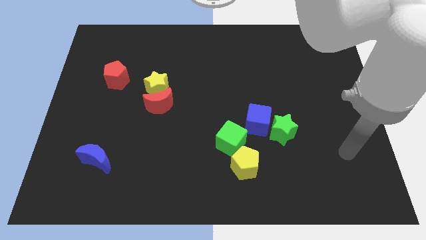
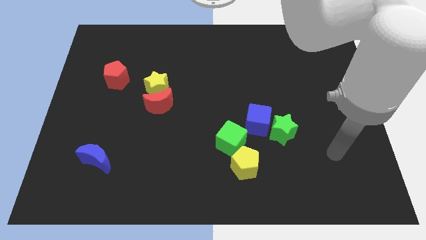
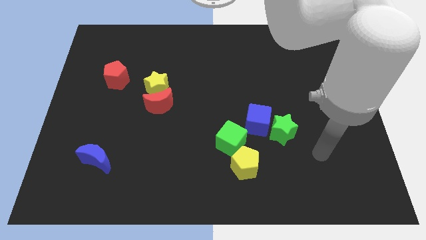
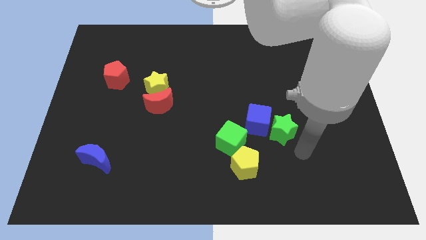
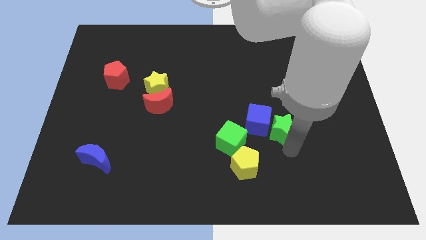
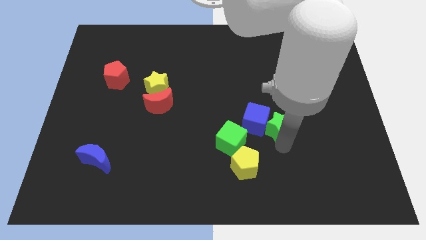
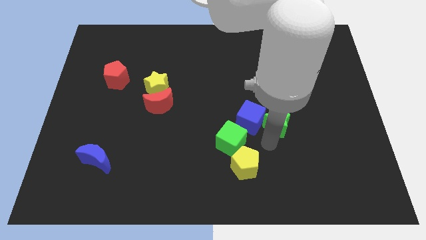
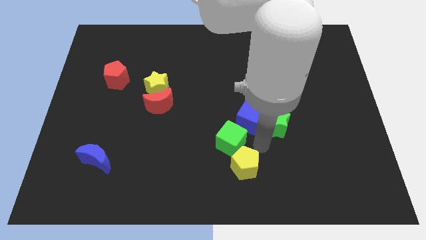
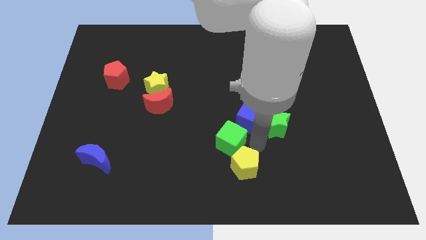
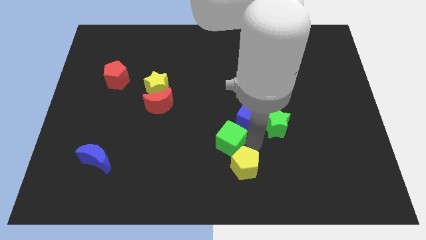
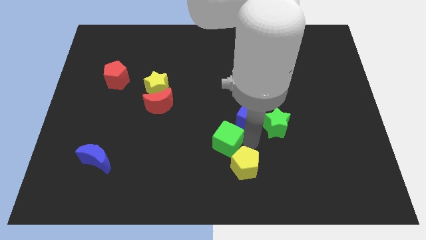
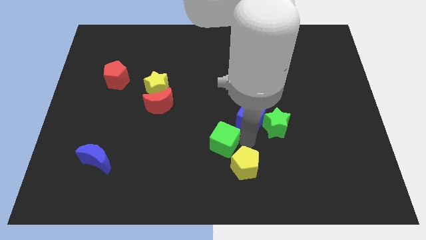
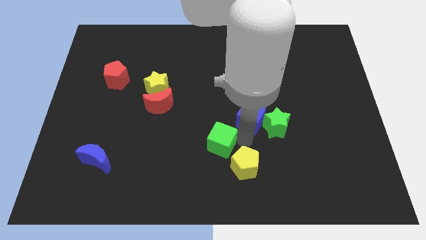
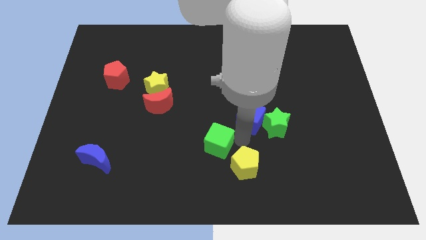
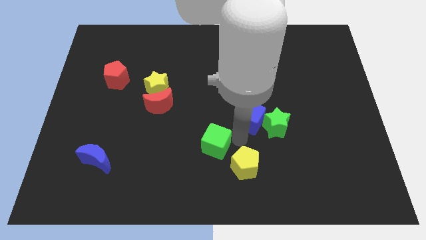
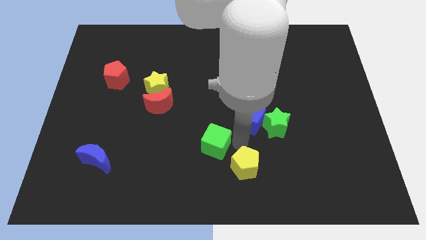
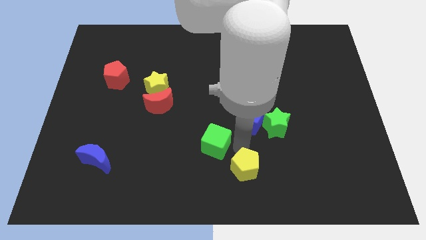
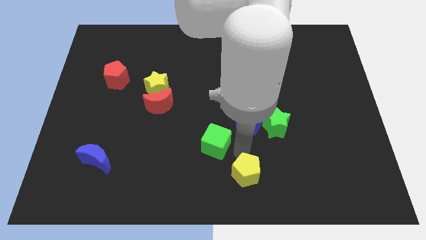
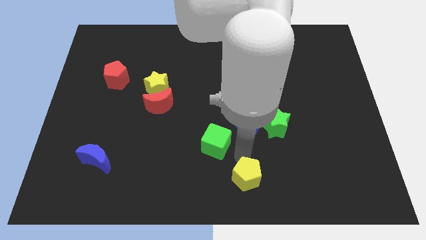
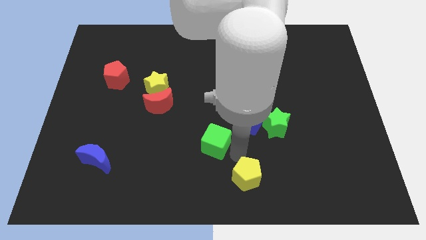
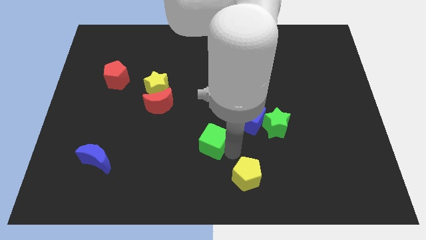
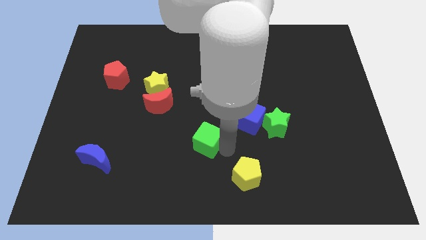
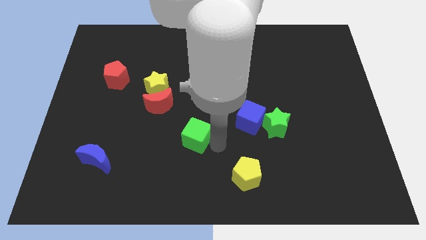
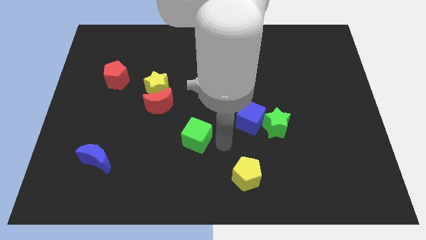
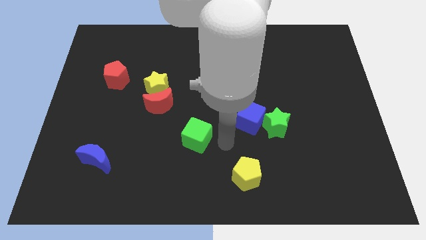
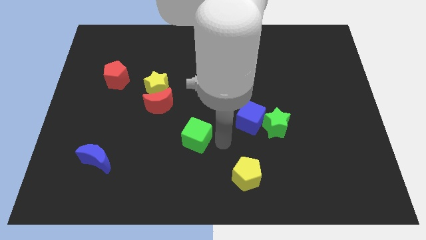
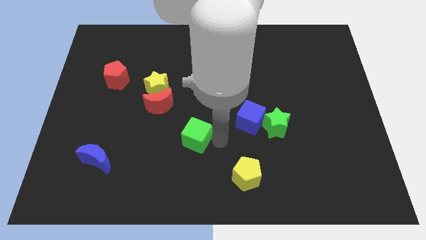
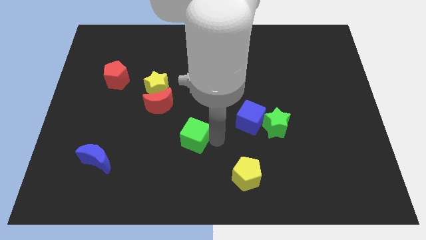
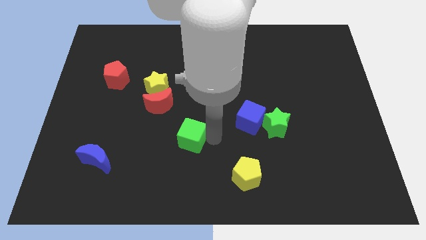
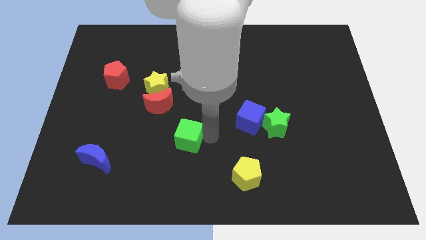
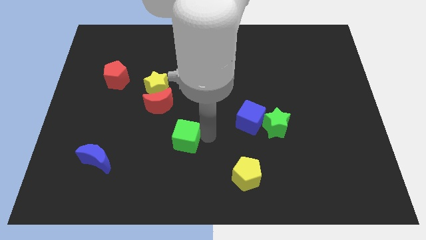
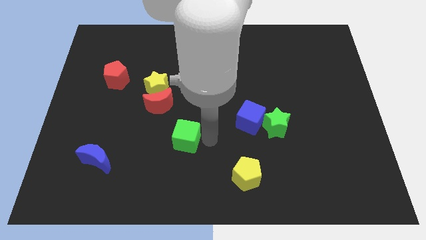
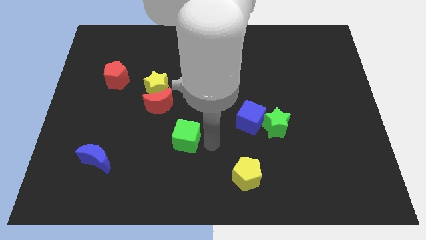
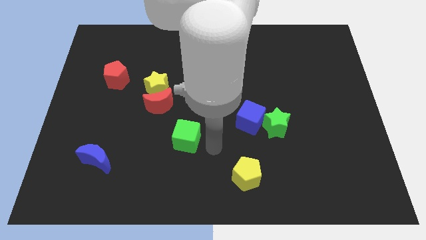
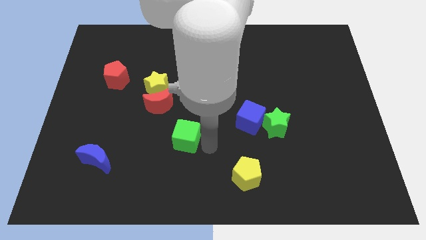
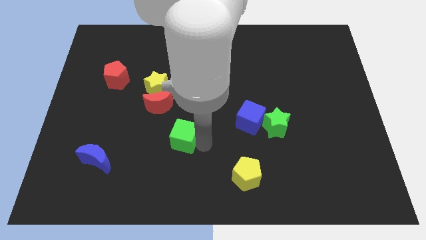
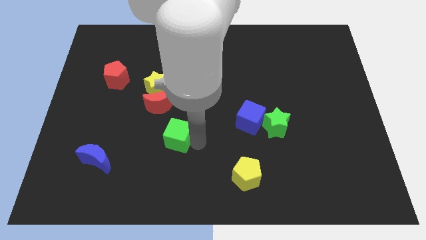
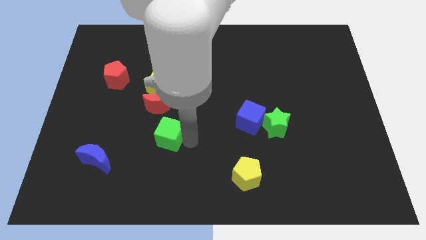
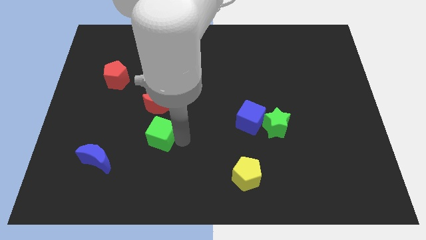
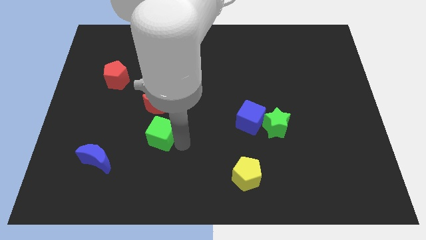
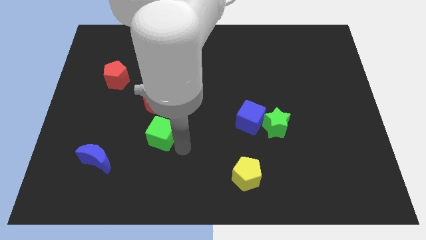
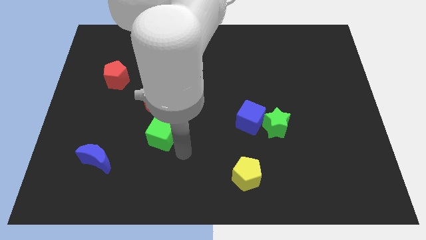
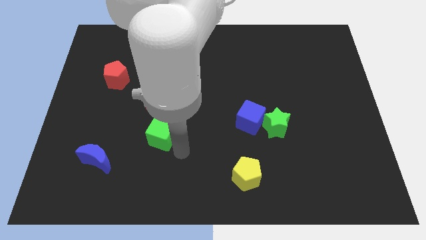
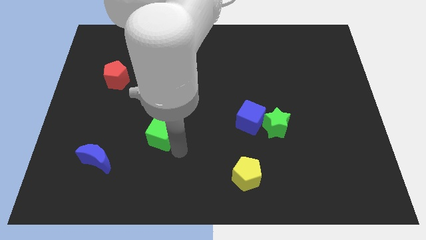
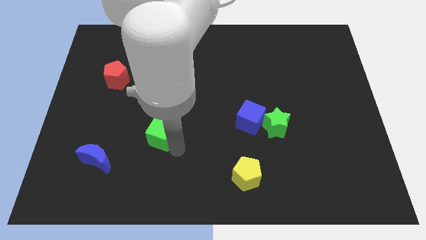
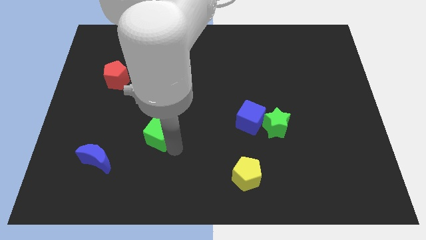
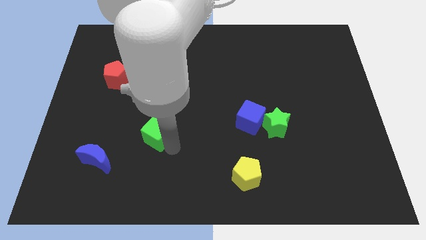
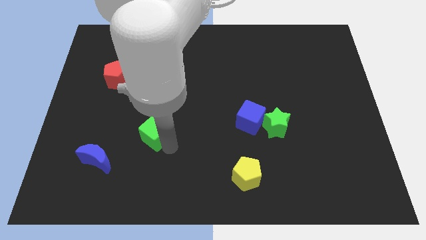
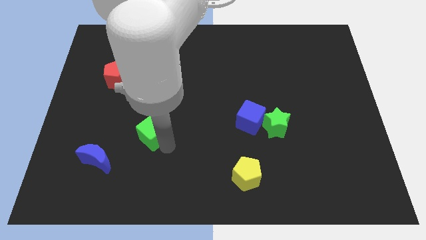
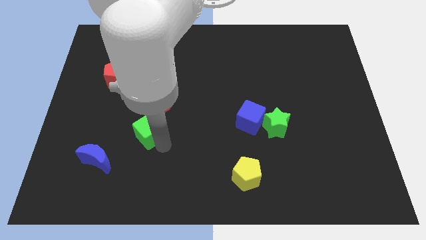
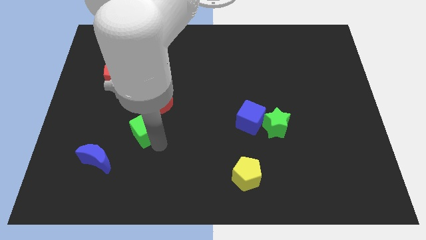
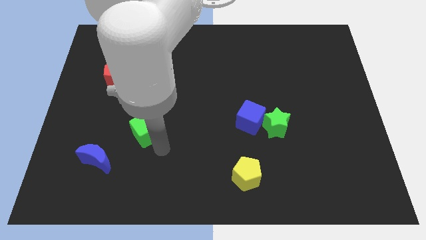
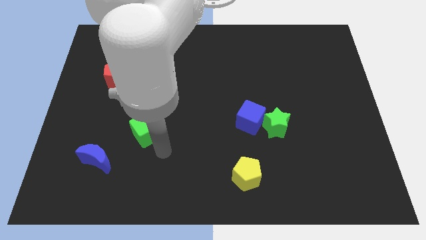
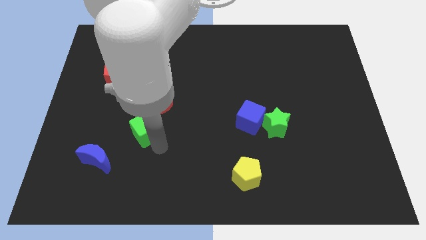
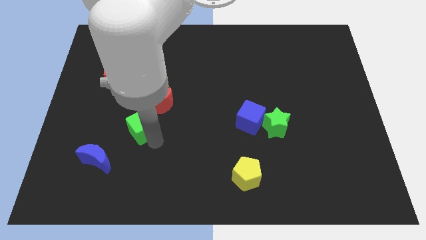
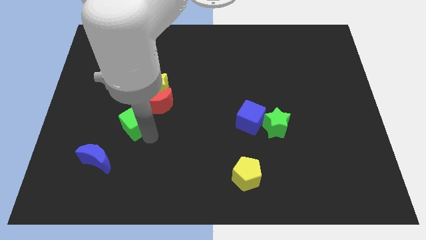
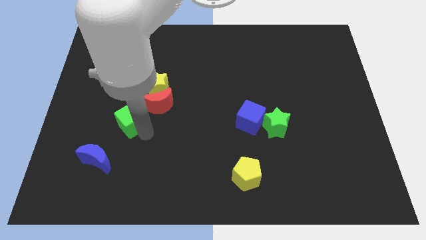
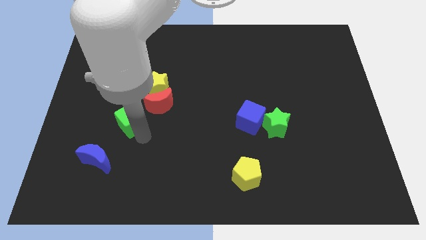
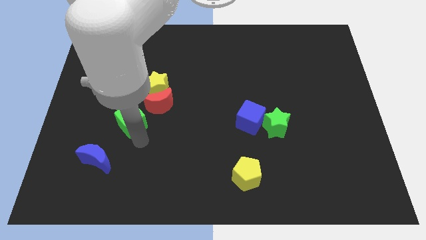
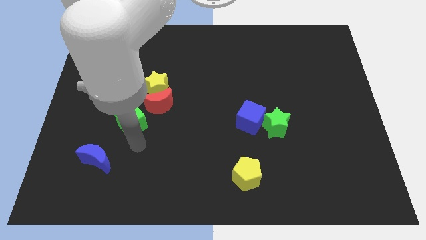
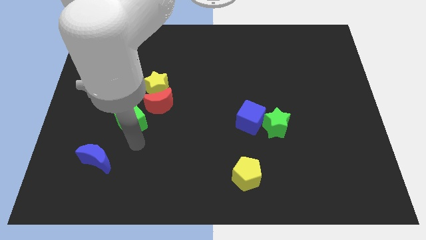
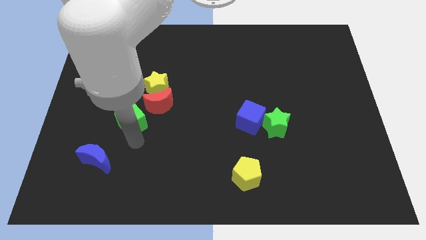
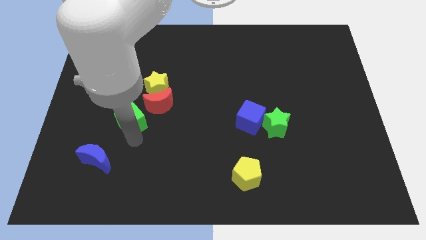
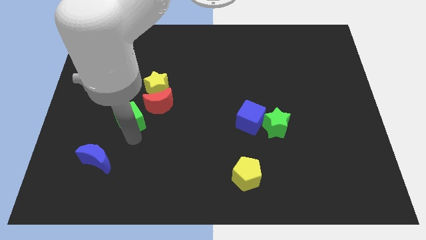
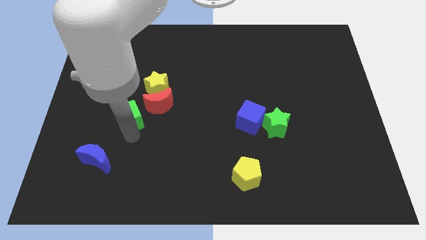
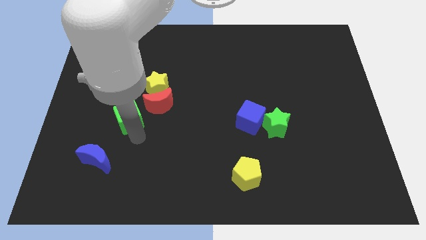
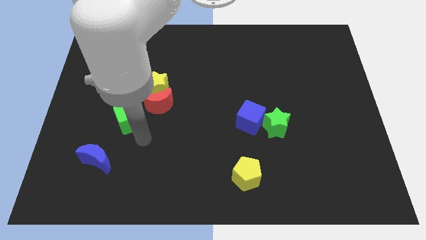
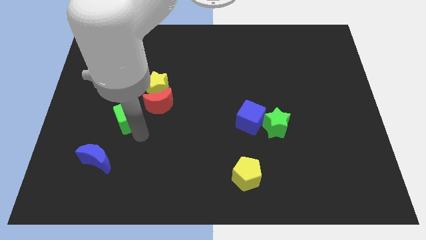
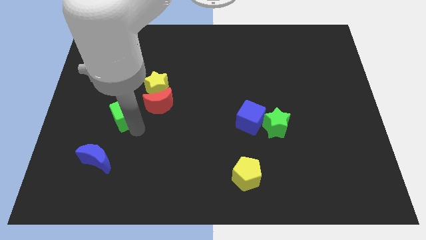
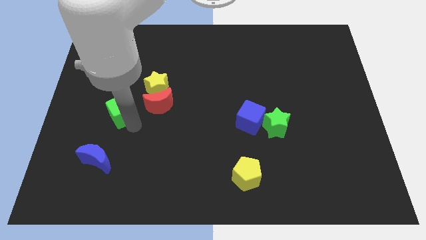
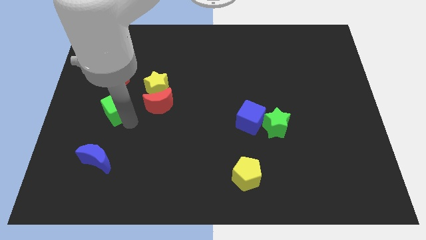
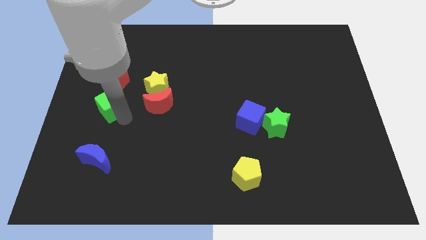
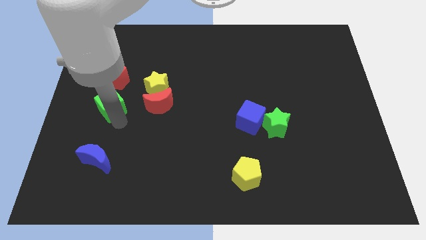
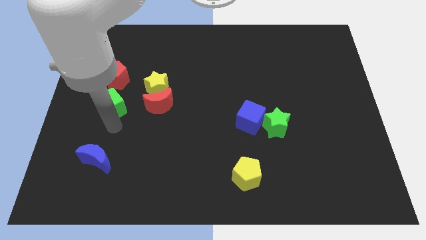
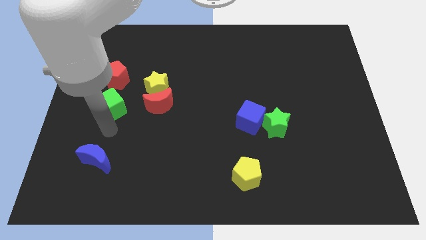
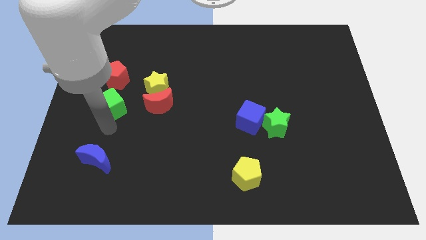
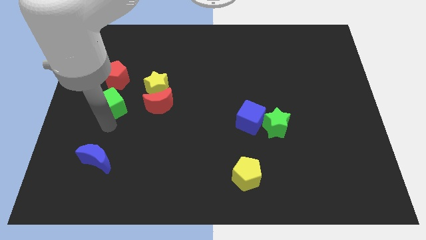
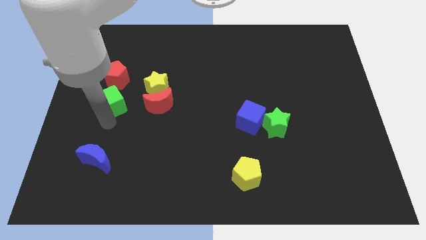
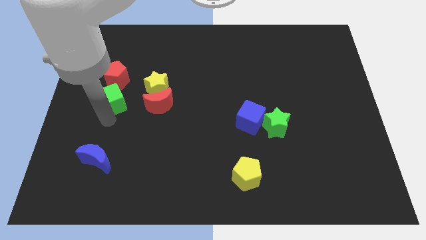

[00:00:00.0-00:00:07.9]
put the green cube left of the yellow star

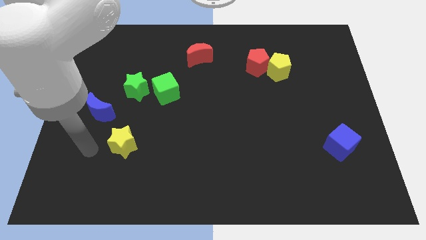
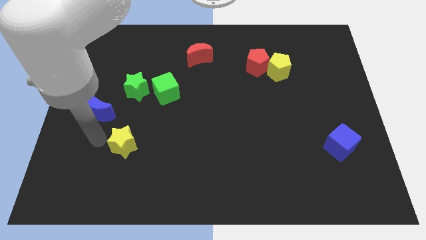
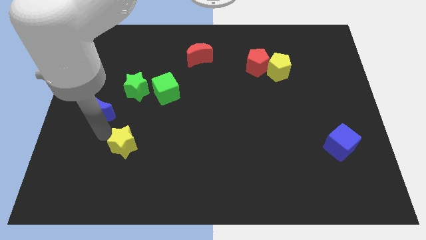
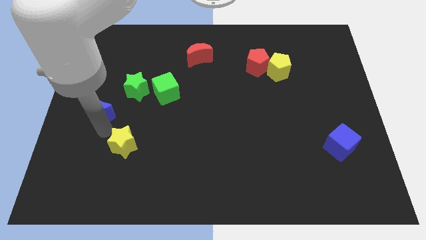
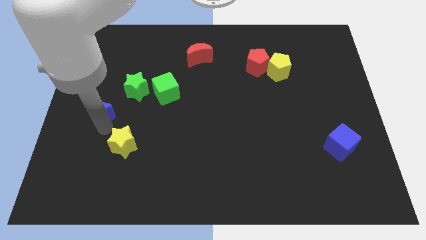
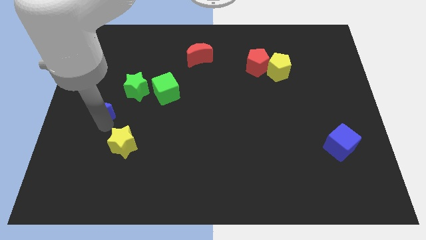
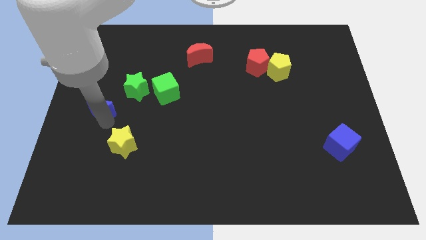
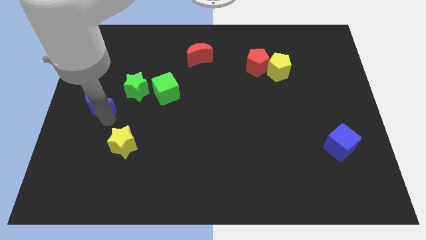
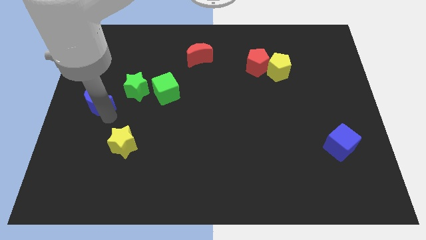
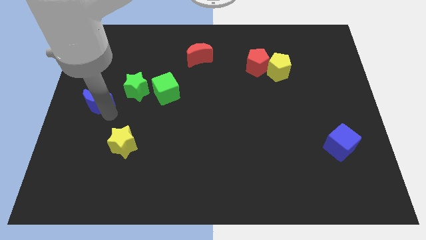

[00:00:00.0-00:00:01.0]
push the blue moon just left of the green star
